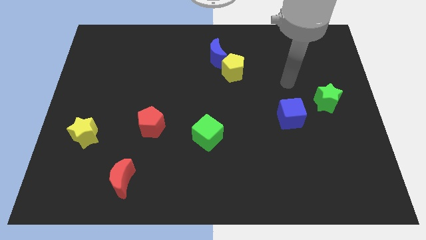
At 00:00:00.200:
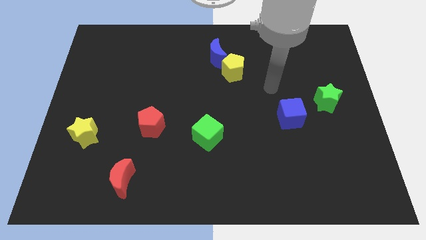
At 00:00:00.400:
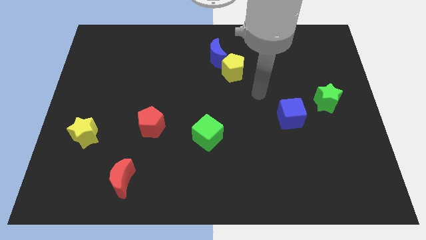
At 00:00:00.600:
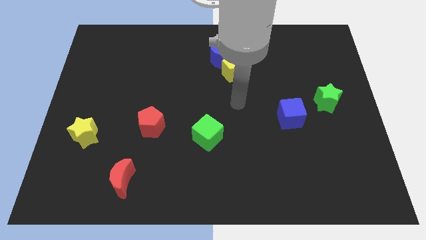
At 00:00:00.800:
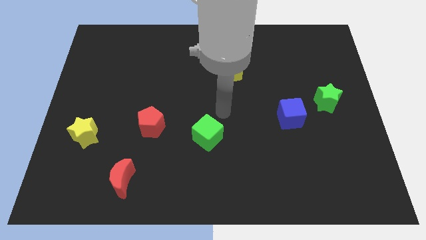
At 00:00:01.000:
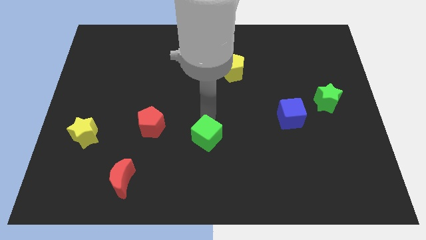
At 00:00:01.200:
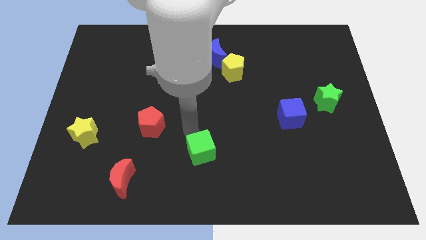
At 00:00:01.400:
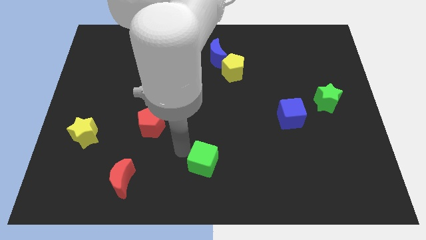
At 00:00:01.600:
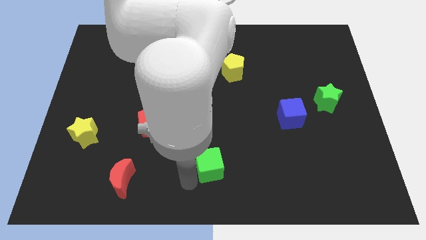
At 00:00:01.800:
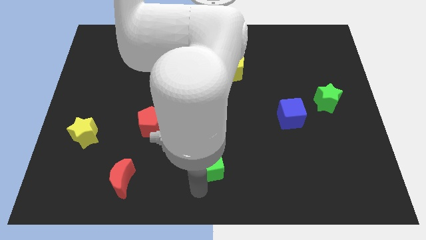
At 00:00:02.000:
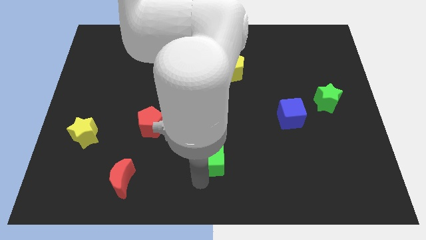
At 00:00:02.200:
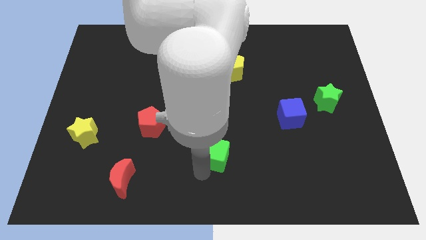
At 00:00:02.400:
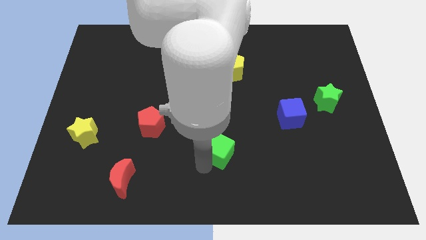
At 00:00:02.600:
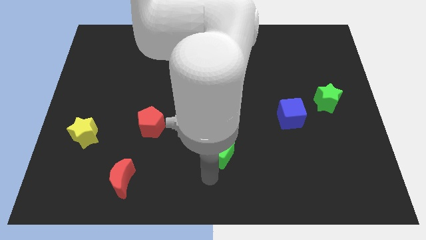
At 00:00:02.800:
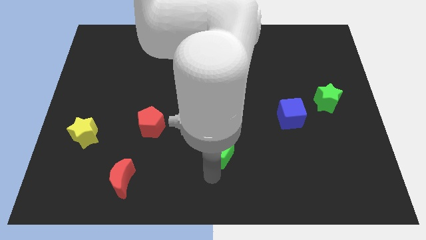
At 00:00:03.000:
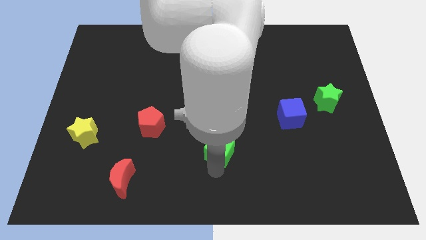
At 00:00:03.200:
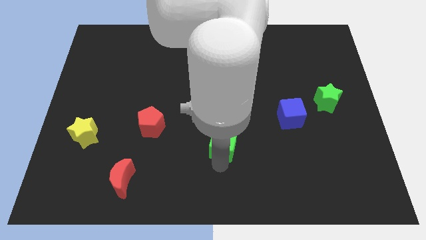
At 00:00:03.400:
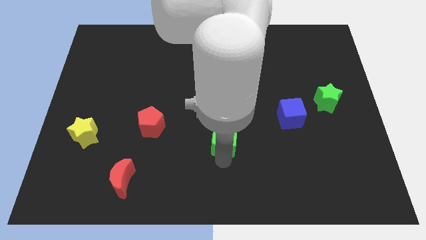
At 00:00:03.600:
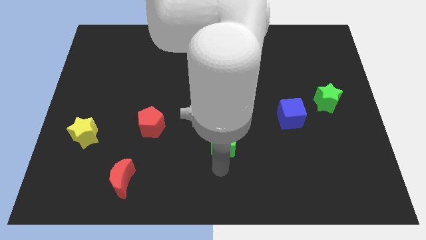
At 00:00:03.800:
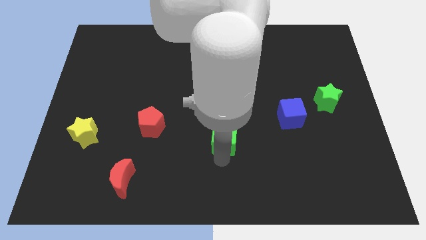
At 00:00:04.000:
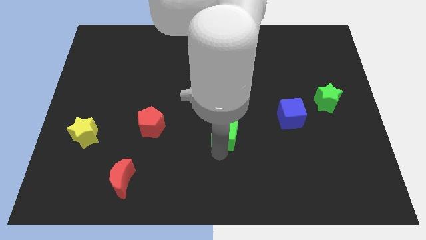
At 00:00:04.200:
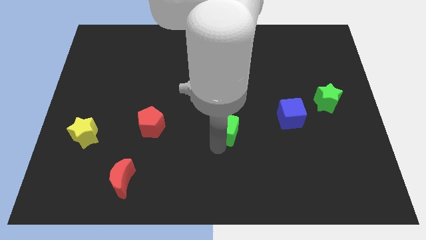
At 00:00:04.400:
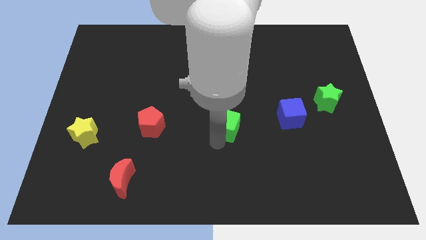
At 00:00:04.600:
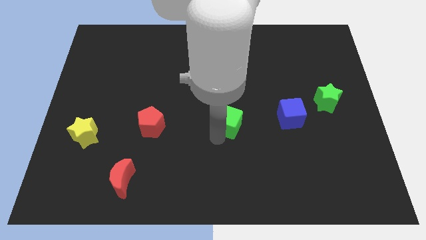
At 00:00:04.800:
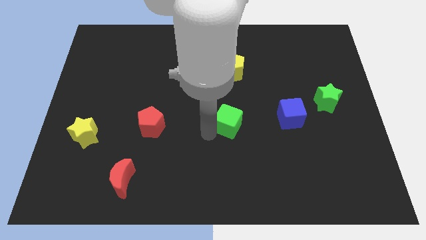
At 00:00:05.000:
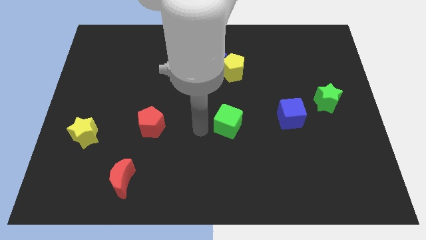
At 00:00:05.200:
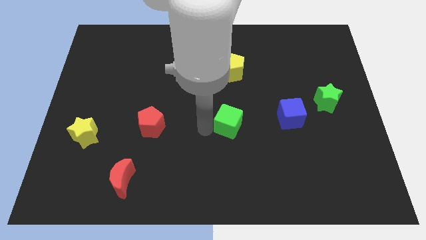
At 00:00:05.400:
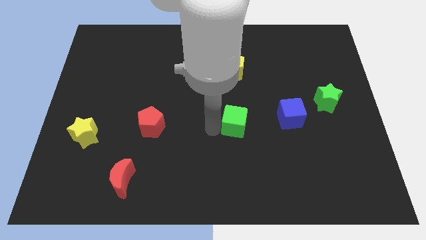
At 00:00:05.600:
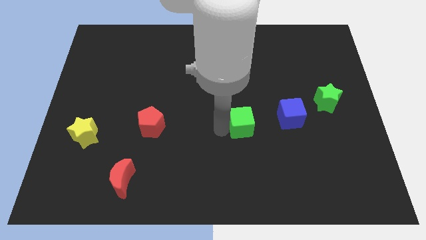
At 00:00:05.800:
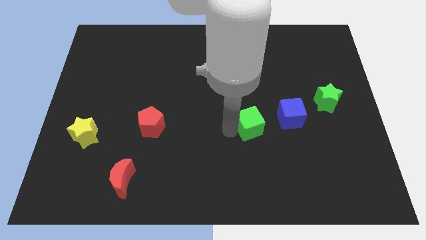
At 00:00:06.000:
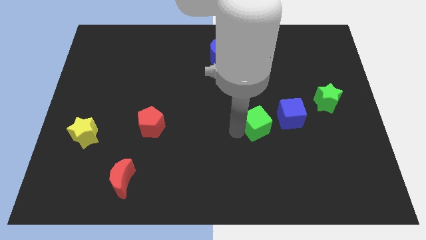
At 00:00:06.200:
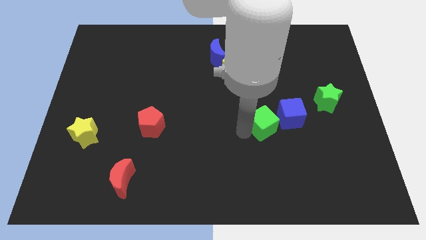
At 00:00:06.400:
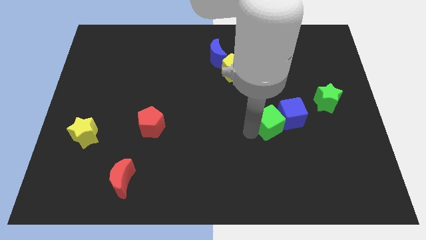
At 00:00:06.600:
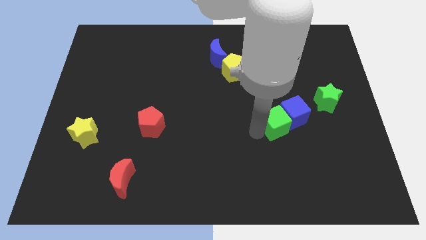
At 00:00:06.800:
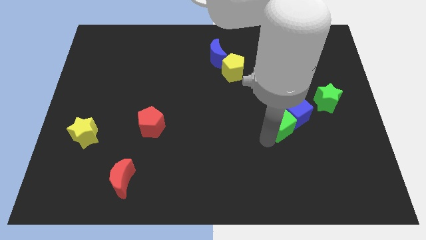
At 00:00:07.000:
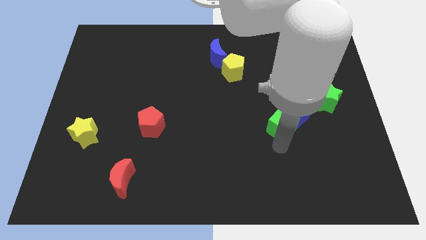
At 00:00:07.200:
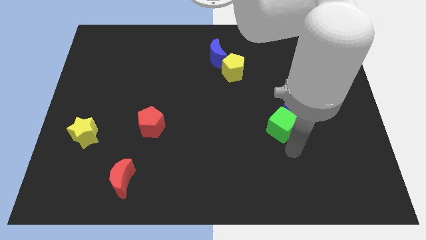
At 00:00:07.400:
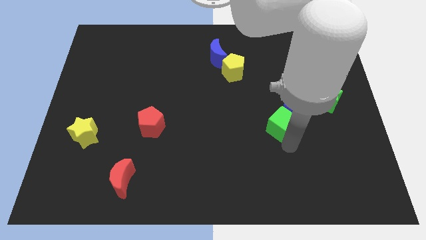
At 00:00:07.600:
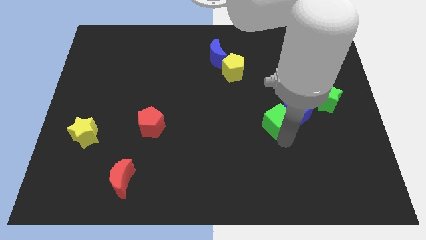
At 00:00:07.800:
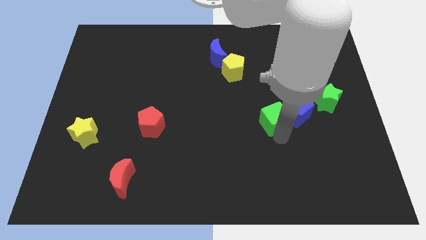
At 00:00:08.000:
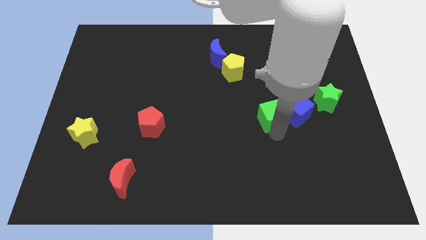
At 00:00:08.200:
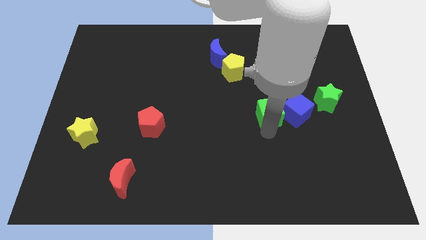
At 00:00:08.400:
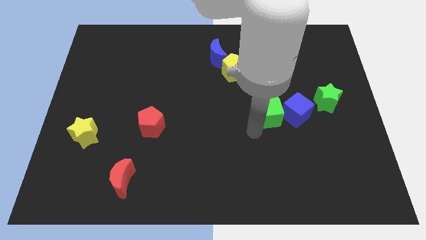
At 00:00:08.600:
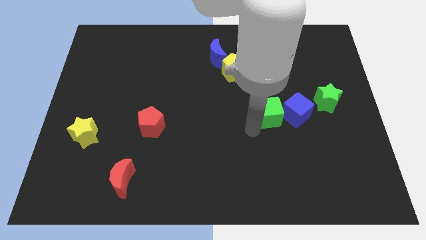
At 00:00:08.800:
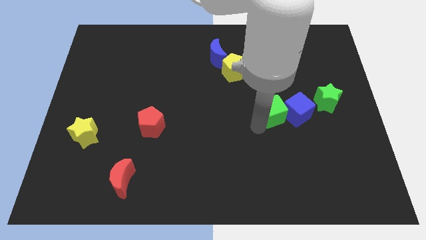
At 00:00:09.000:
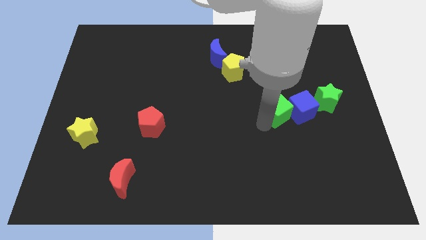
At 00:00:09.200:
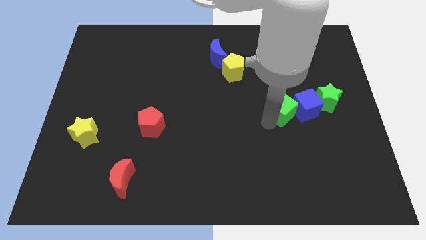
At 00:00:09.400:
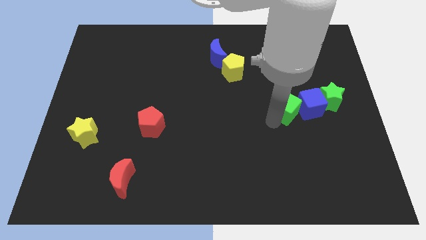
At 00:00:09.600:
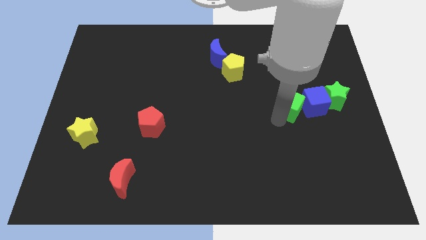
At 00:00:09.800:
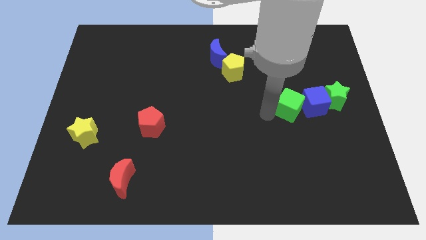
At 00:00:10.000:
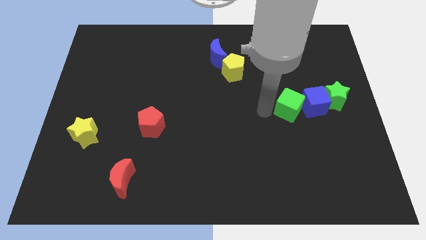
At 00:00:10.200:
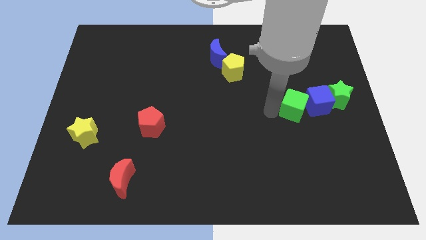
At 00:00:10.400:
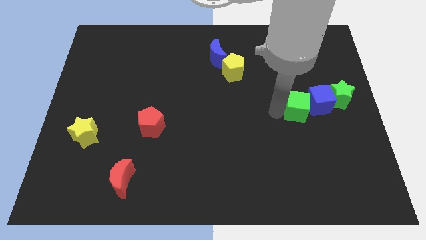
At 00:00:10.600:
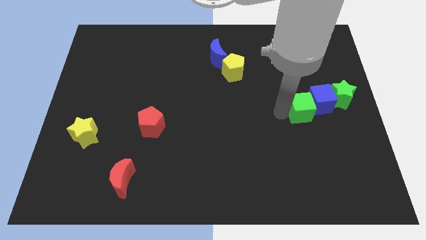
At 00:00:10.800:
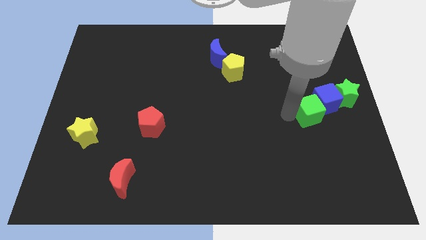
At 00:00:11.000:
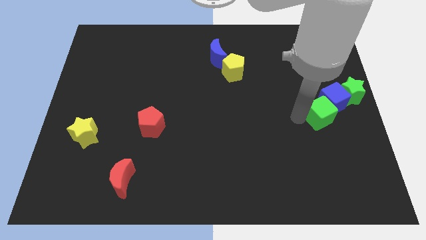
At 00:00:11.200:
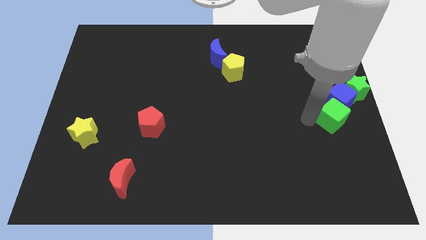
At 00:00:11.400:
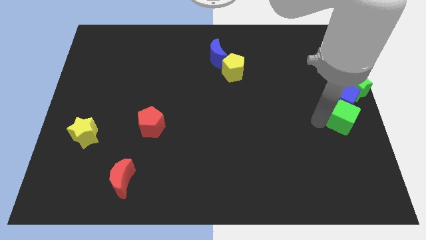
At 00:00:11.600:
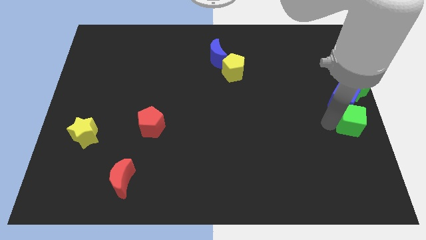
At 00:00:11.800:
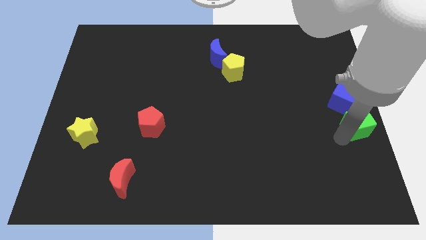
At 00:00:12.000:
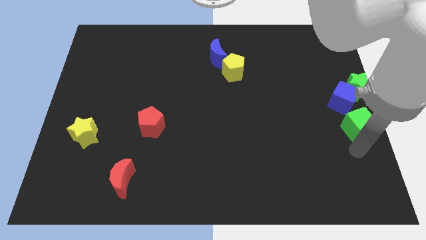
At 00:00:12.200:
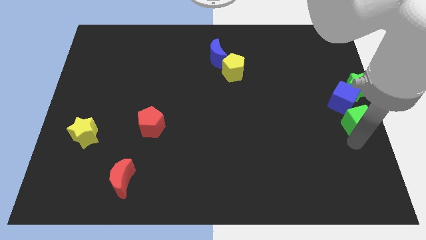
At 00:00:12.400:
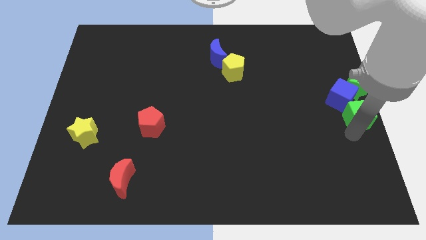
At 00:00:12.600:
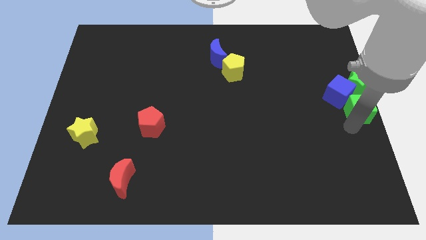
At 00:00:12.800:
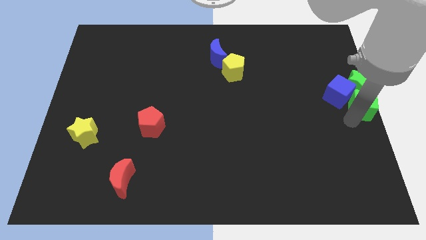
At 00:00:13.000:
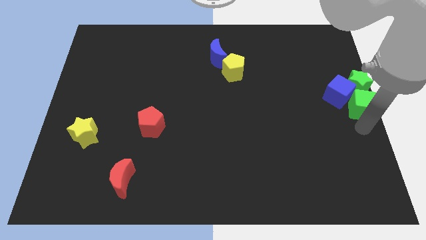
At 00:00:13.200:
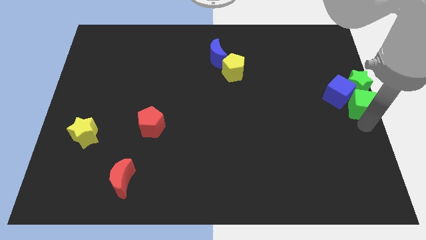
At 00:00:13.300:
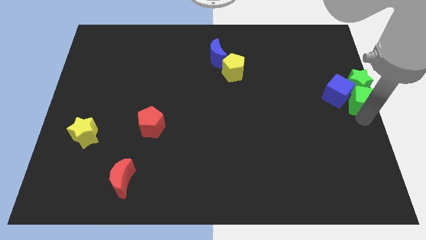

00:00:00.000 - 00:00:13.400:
slide the green cube to the green star

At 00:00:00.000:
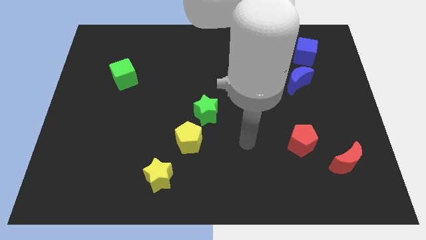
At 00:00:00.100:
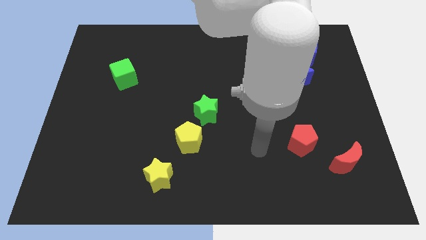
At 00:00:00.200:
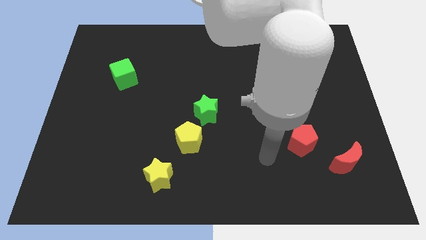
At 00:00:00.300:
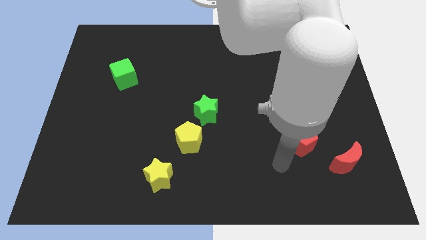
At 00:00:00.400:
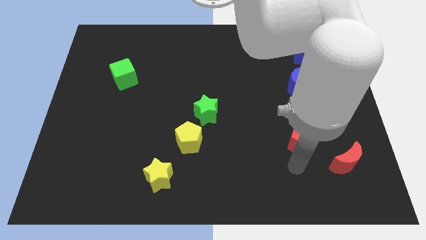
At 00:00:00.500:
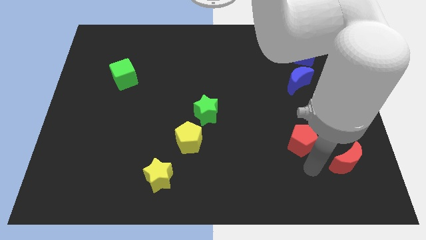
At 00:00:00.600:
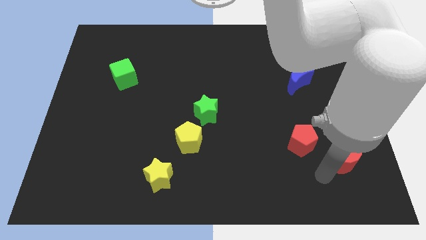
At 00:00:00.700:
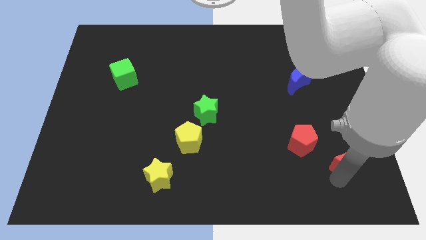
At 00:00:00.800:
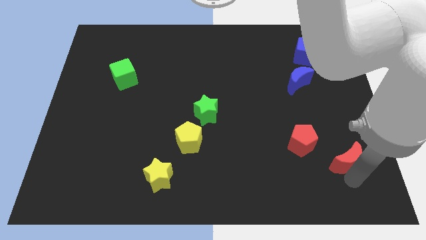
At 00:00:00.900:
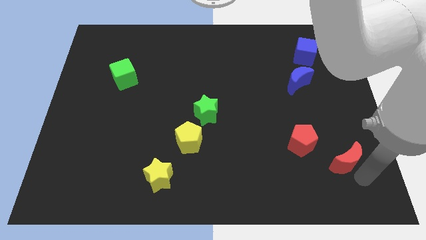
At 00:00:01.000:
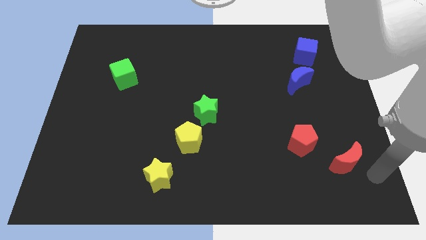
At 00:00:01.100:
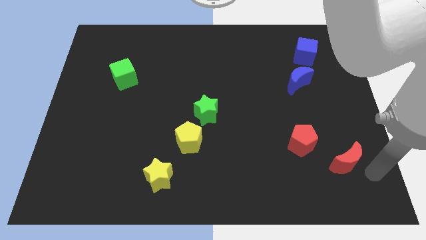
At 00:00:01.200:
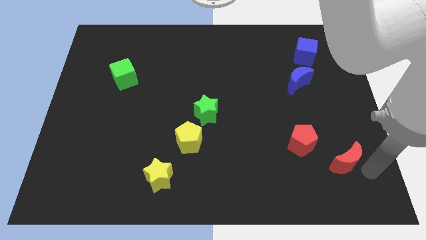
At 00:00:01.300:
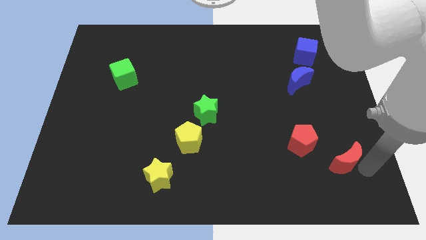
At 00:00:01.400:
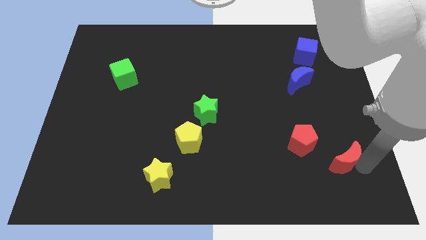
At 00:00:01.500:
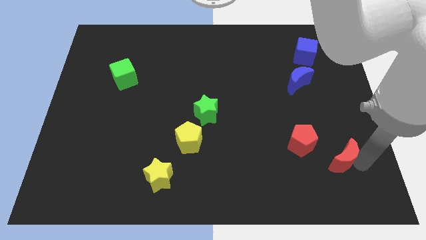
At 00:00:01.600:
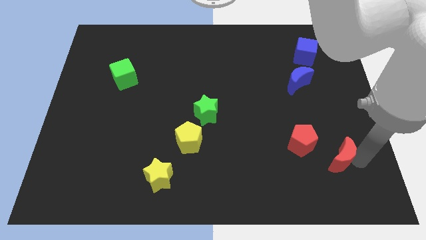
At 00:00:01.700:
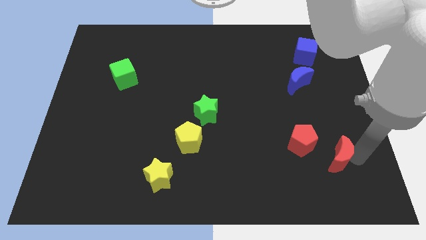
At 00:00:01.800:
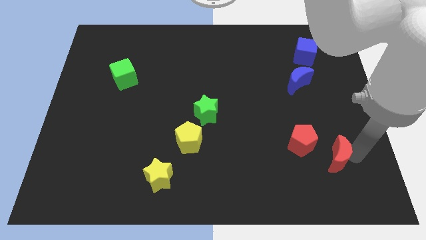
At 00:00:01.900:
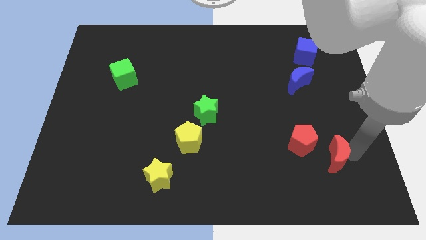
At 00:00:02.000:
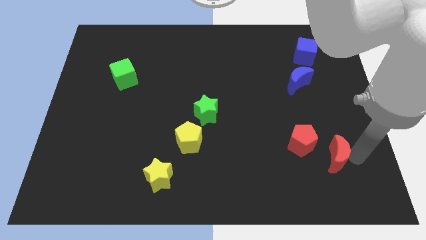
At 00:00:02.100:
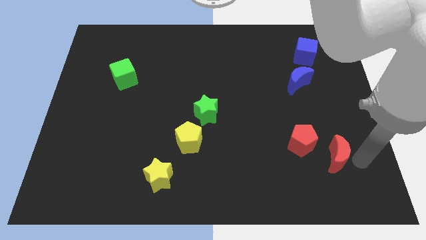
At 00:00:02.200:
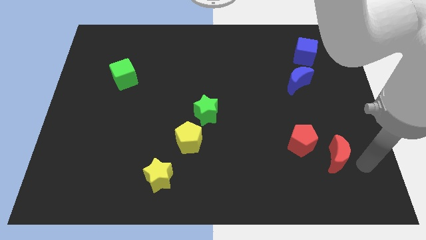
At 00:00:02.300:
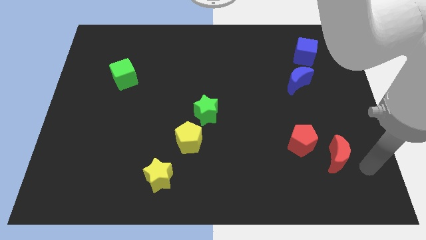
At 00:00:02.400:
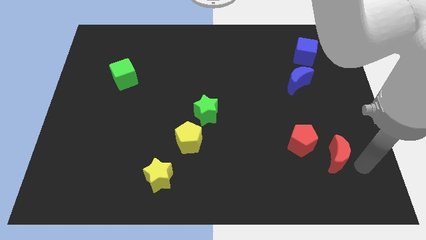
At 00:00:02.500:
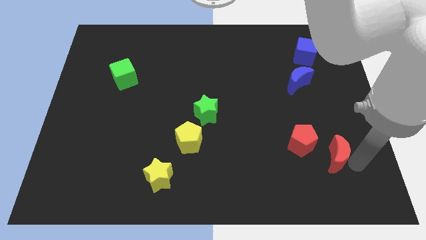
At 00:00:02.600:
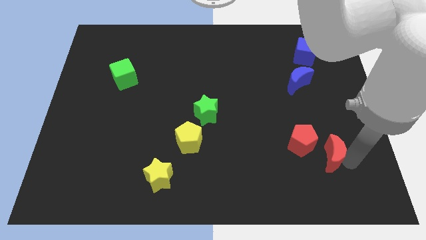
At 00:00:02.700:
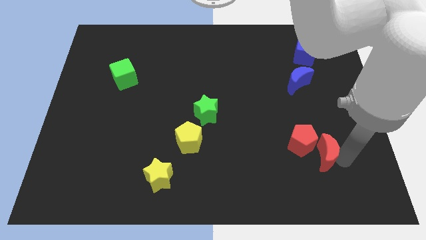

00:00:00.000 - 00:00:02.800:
put the red moon to the red pentagon
